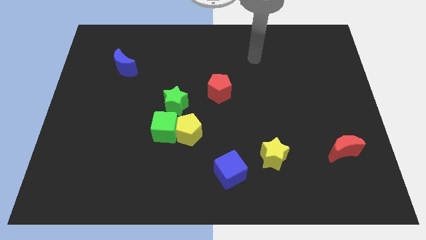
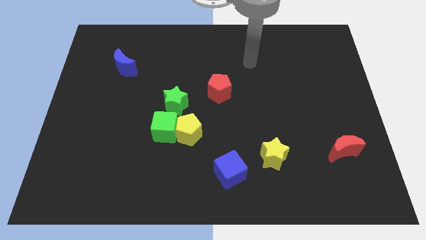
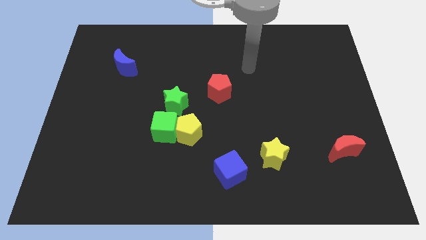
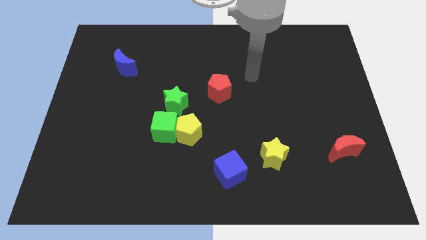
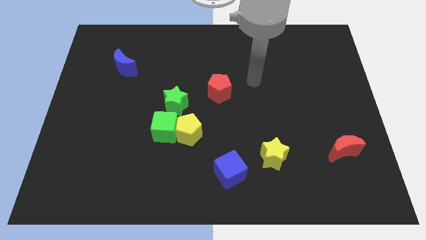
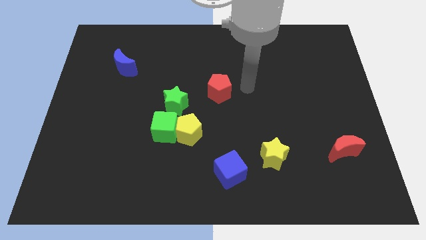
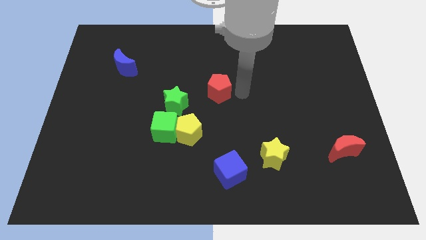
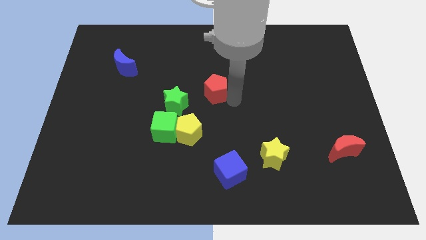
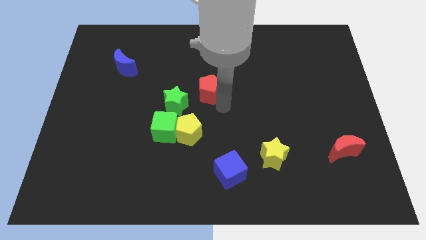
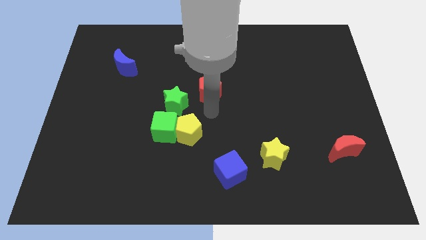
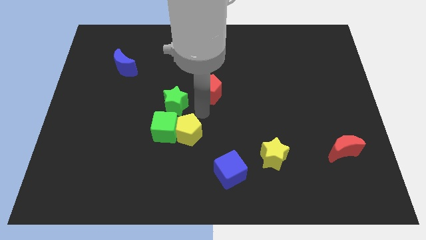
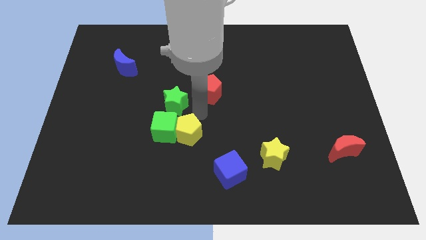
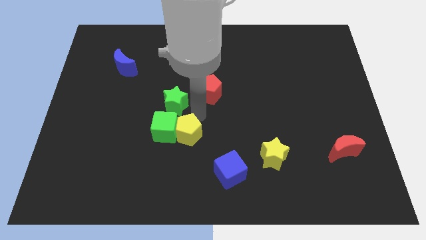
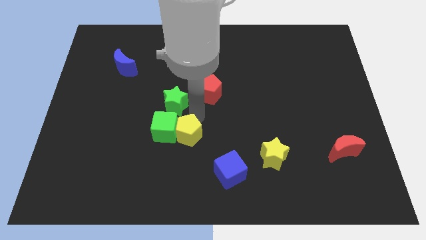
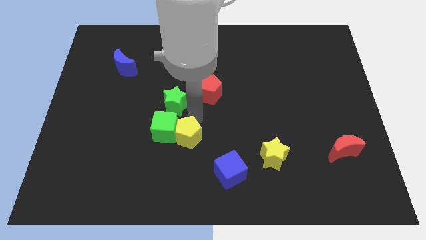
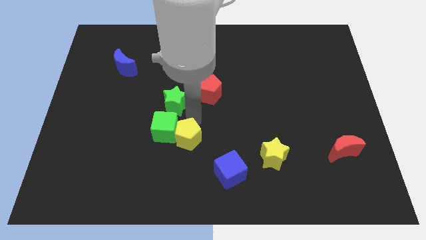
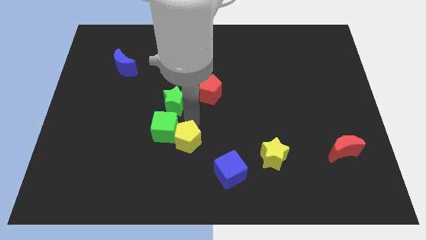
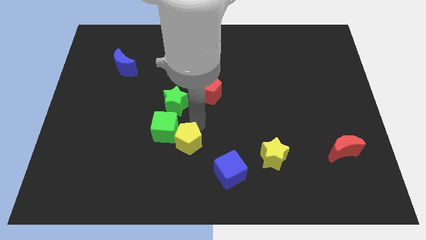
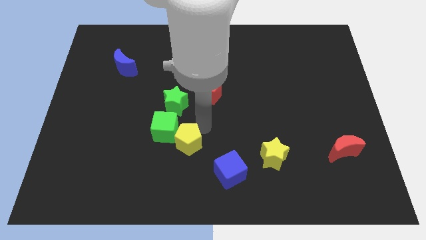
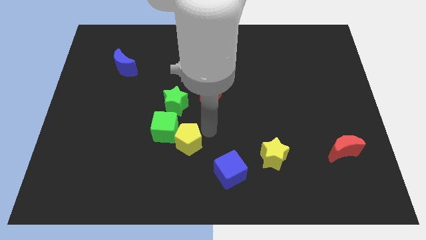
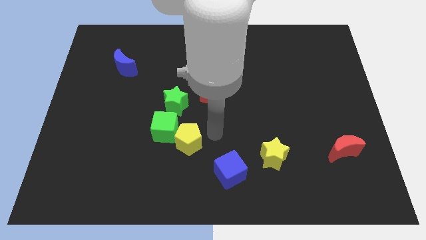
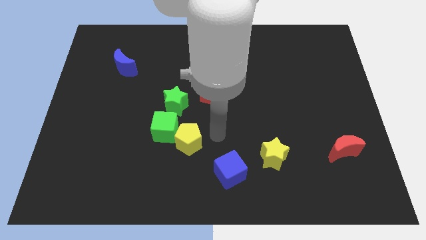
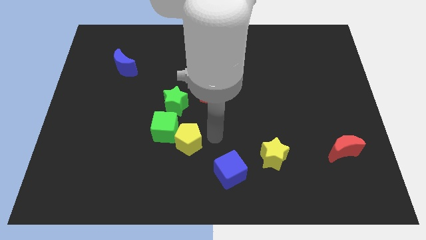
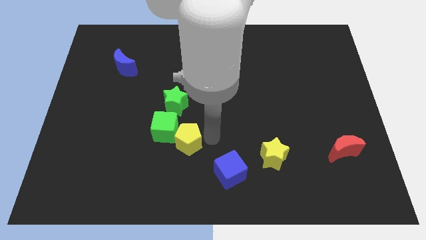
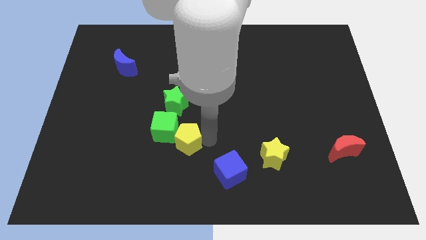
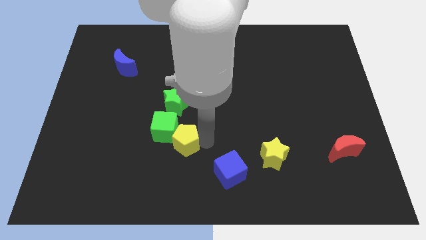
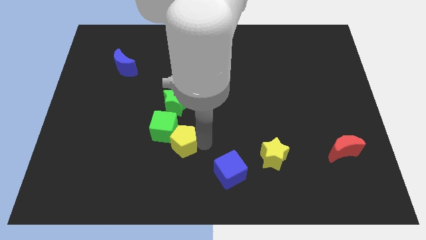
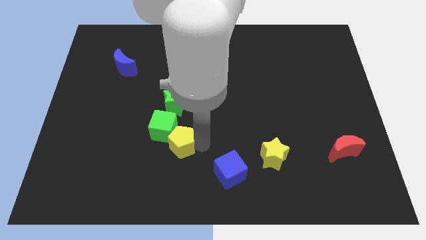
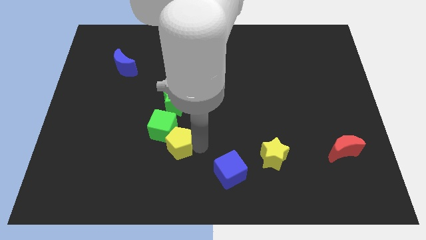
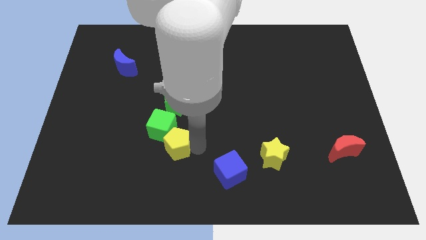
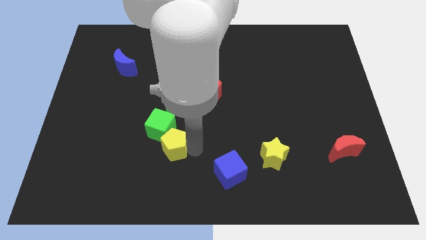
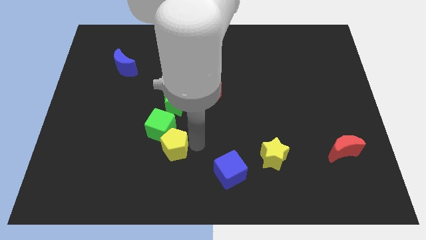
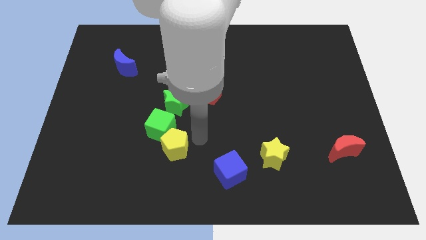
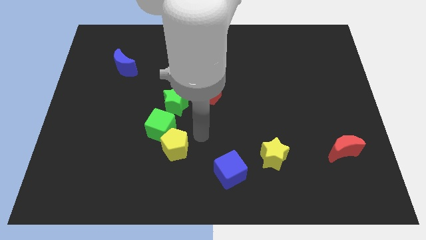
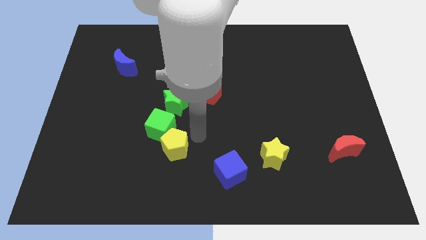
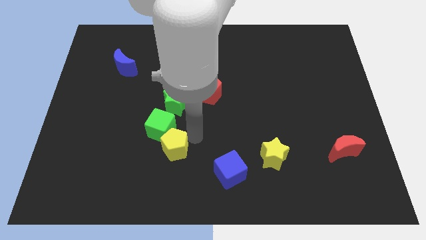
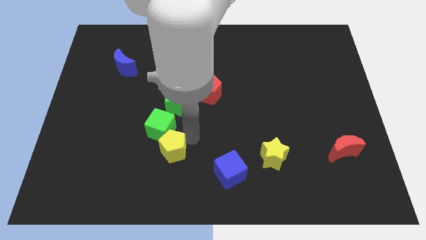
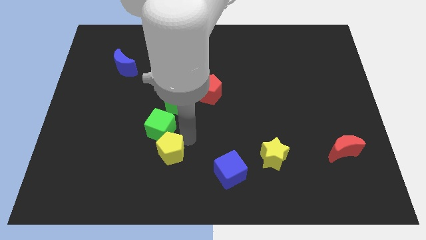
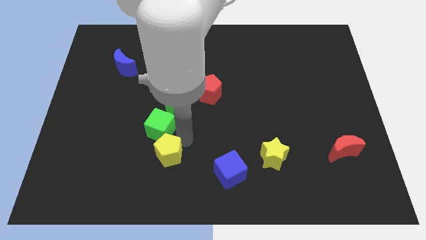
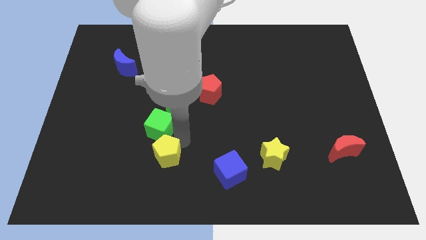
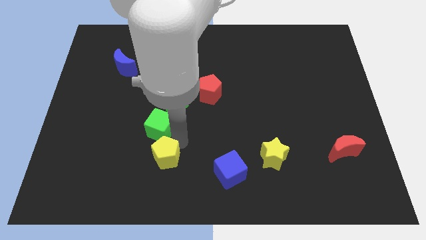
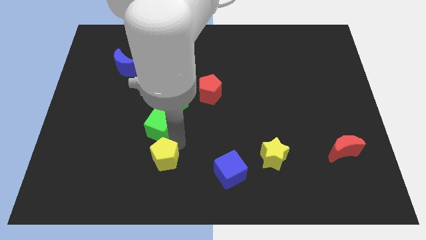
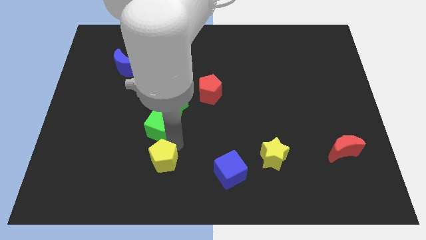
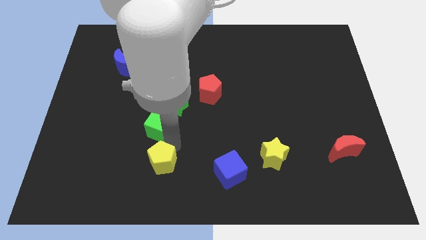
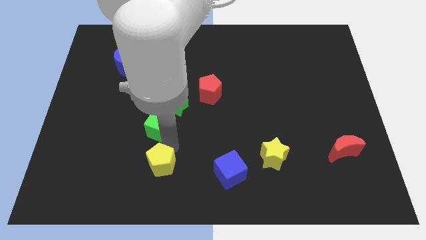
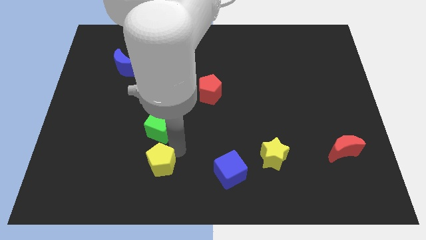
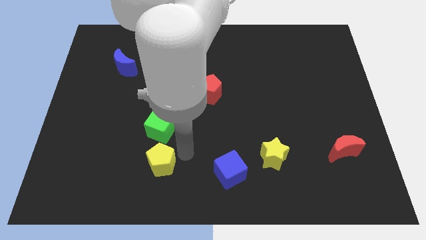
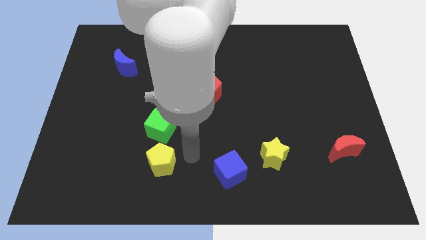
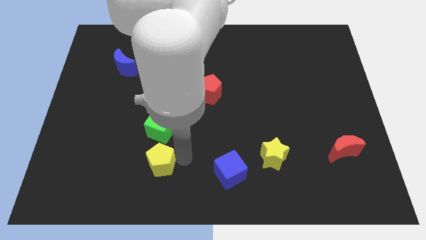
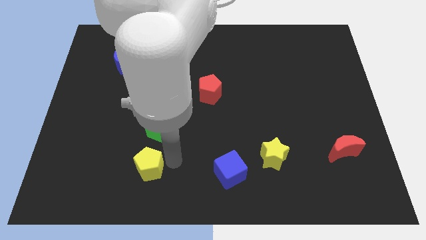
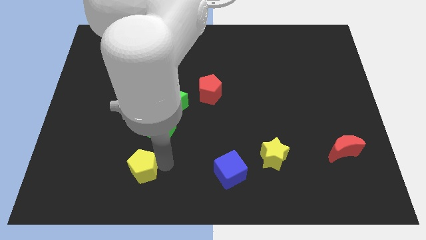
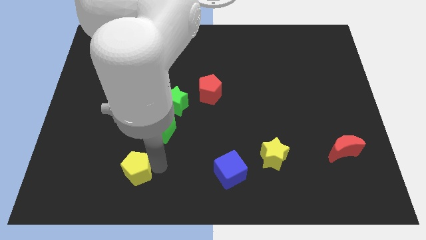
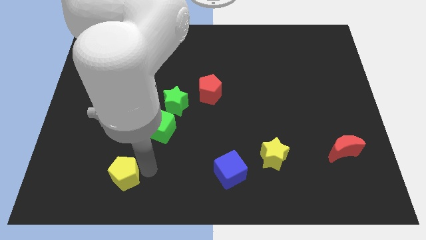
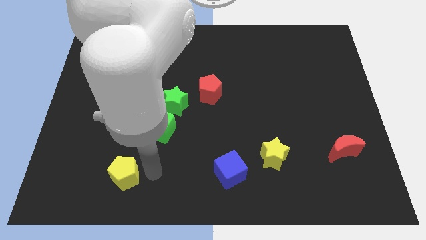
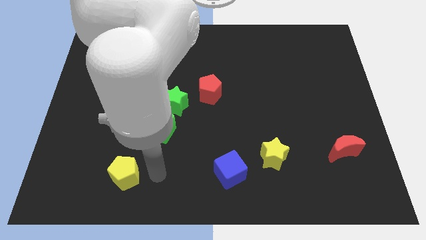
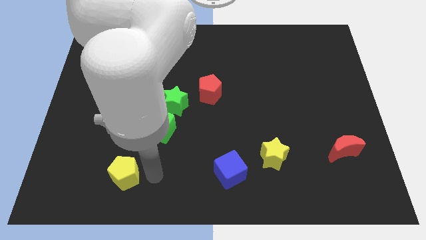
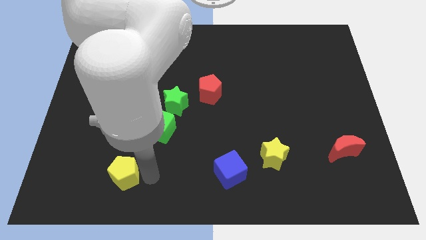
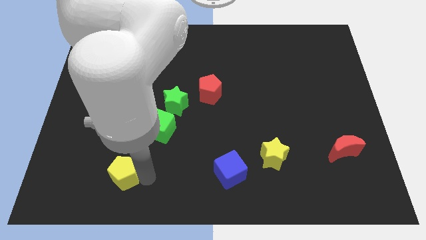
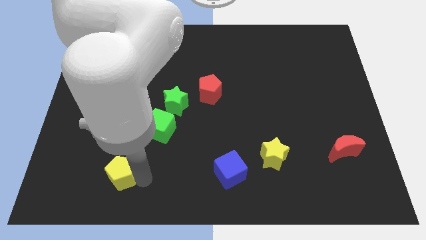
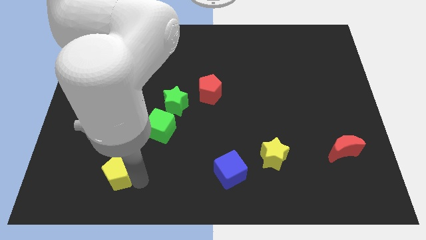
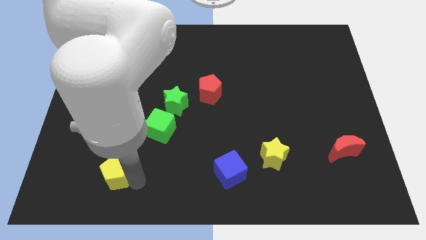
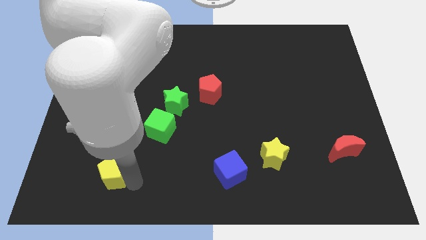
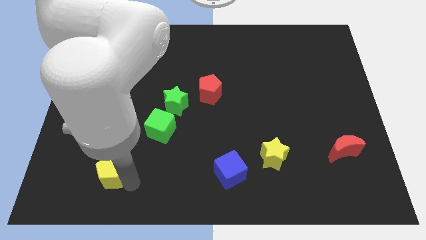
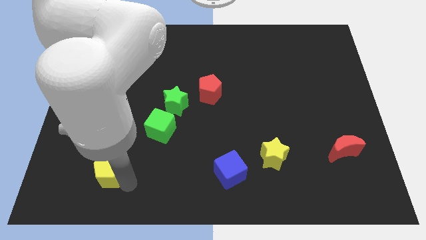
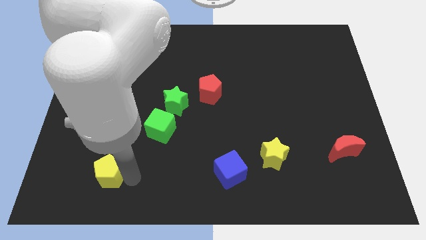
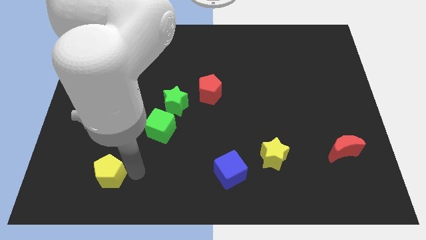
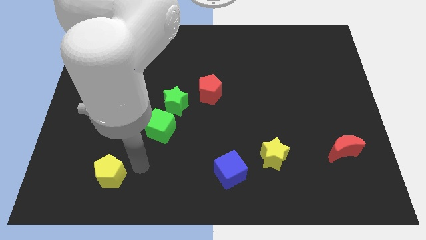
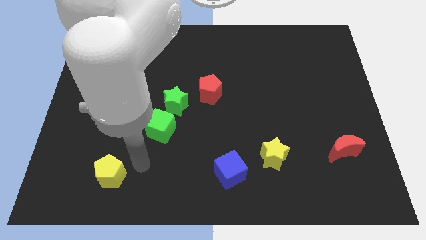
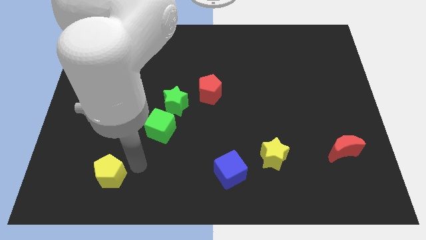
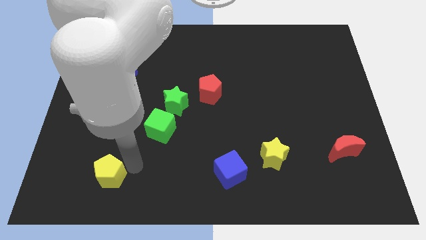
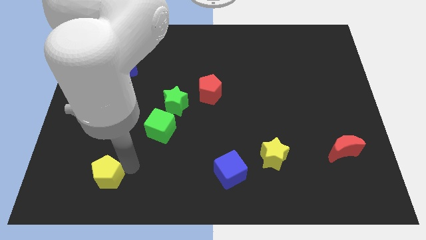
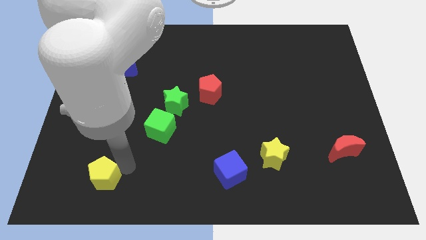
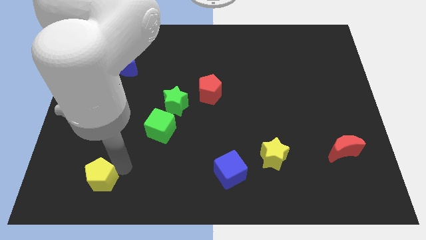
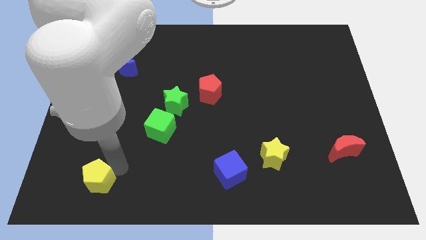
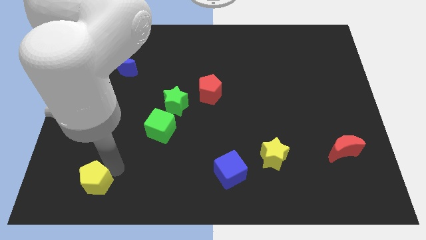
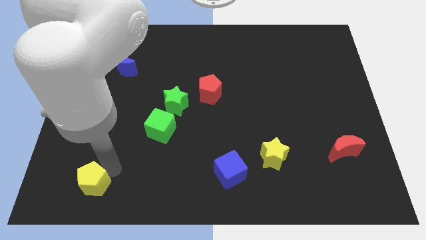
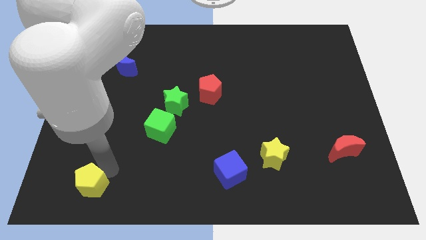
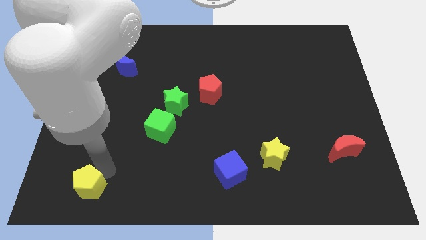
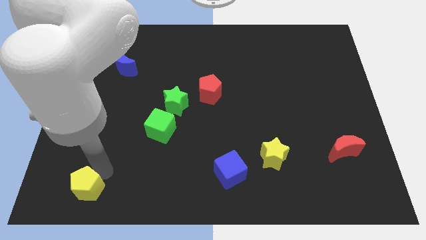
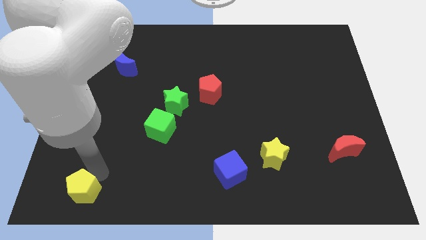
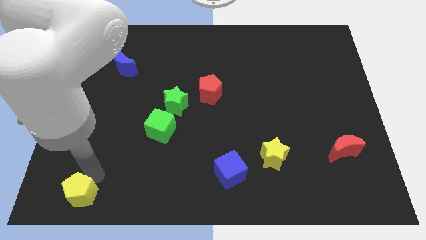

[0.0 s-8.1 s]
move the yellow pentagon to the lower left corner
